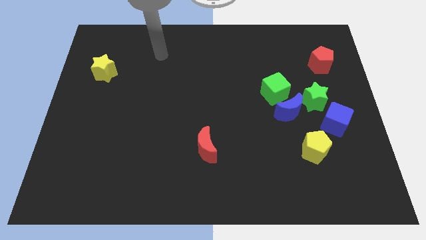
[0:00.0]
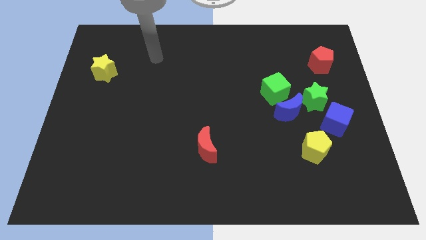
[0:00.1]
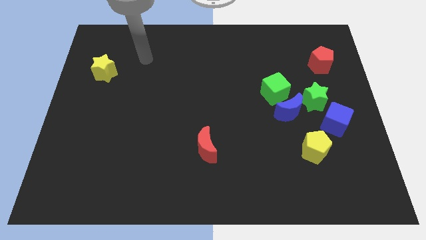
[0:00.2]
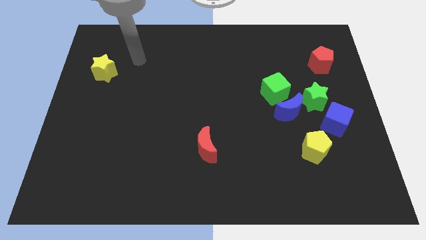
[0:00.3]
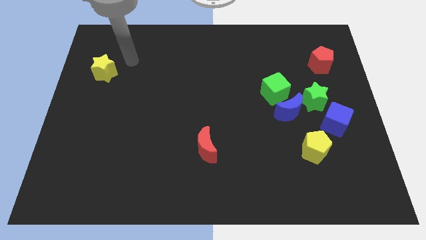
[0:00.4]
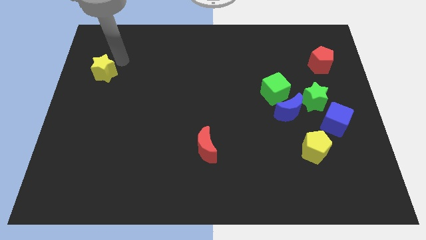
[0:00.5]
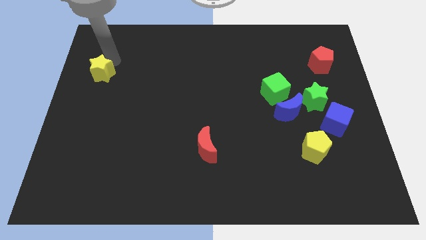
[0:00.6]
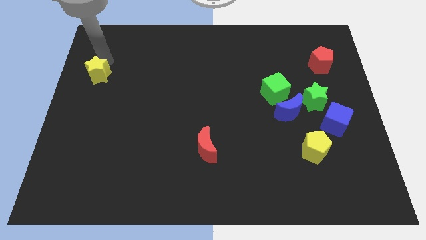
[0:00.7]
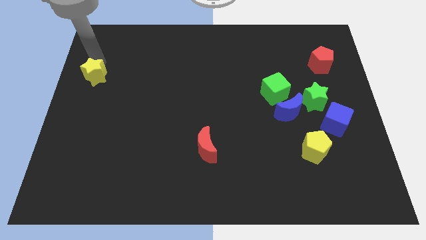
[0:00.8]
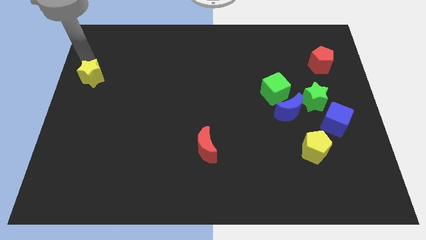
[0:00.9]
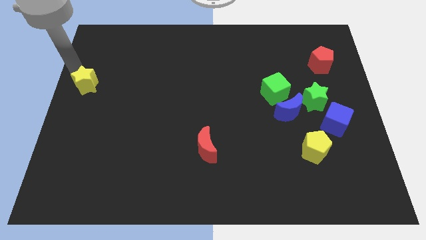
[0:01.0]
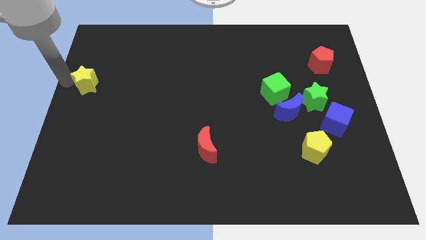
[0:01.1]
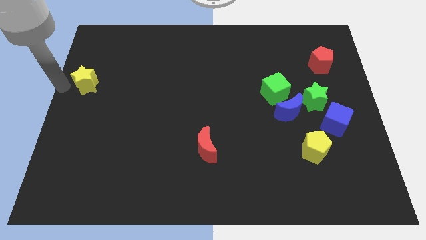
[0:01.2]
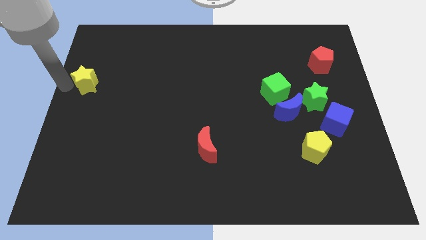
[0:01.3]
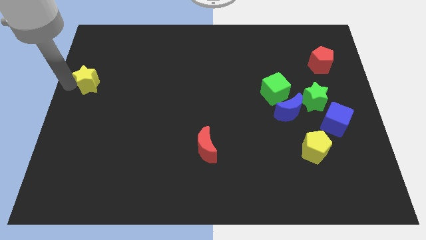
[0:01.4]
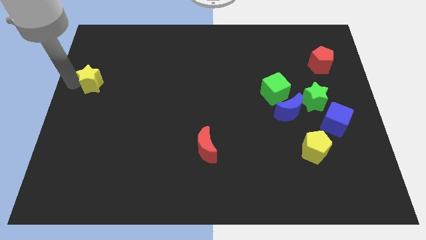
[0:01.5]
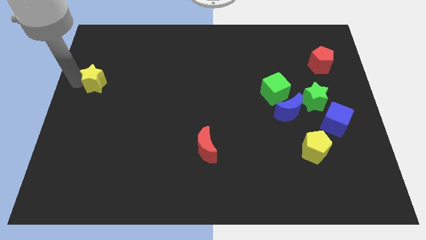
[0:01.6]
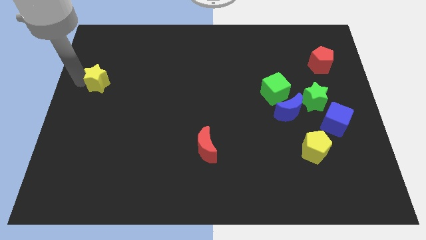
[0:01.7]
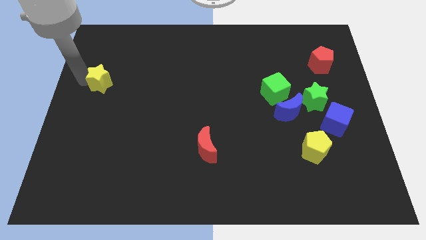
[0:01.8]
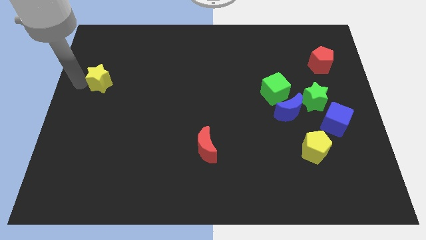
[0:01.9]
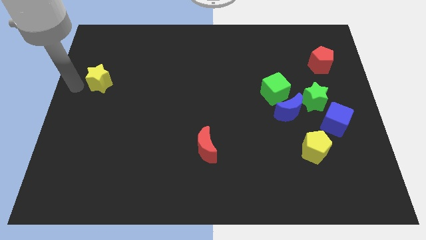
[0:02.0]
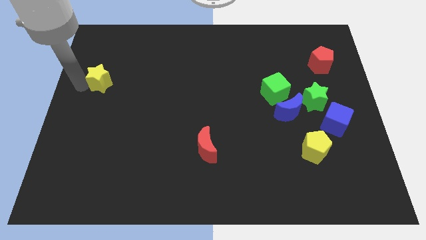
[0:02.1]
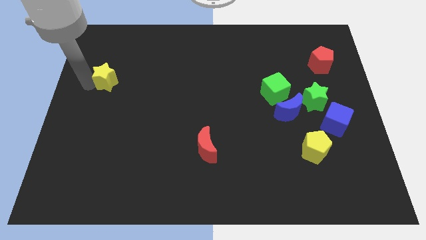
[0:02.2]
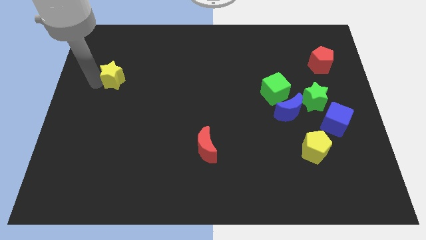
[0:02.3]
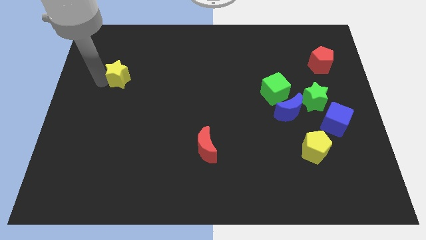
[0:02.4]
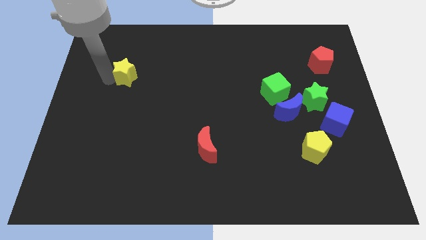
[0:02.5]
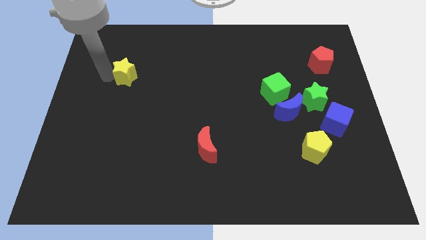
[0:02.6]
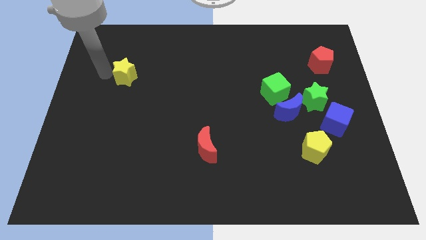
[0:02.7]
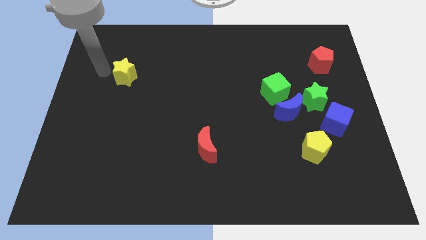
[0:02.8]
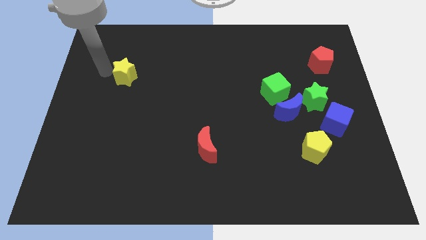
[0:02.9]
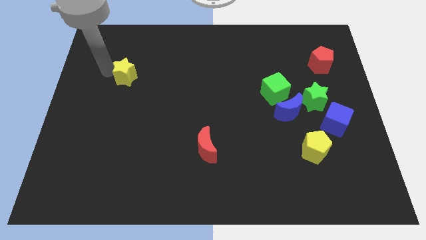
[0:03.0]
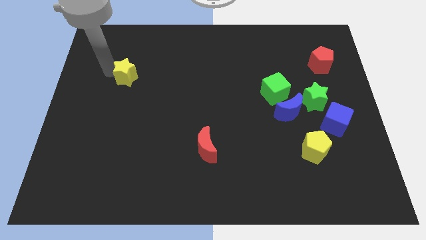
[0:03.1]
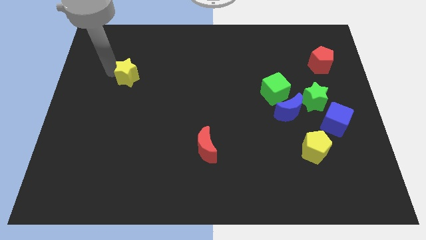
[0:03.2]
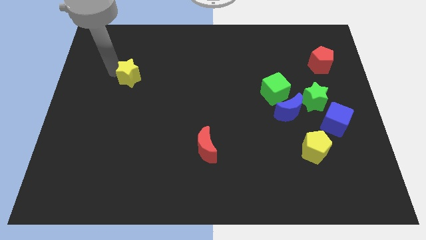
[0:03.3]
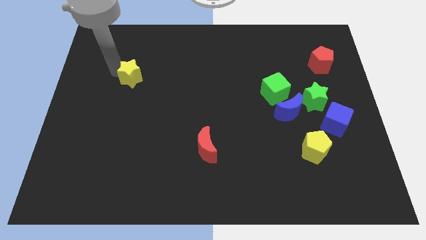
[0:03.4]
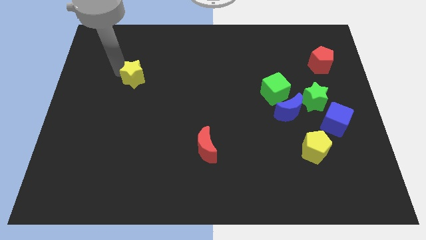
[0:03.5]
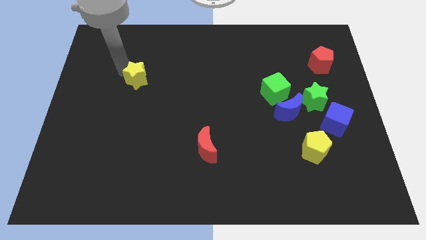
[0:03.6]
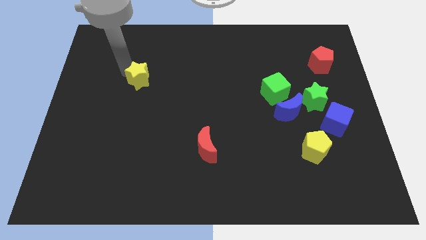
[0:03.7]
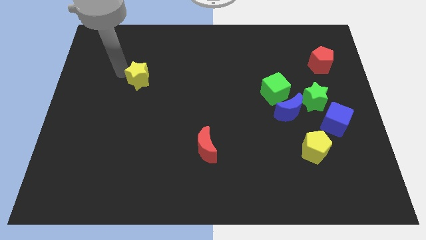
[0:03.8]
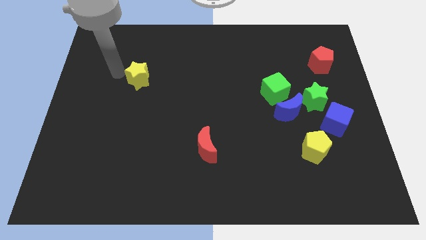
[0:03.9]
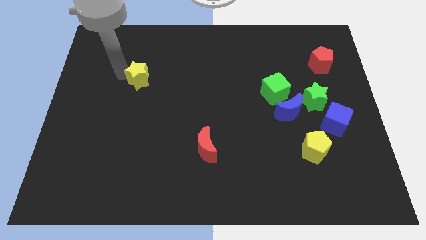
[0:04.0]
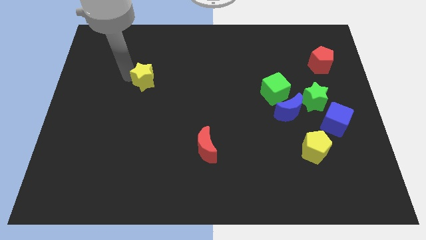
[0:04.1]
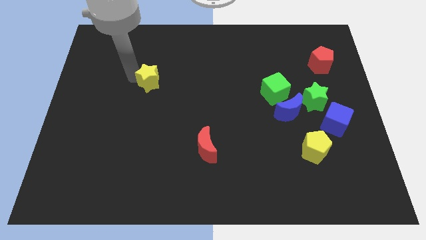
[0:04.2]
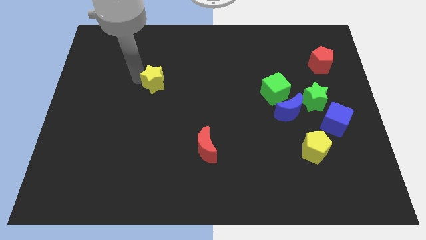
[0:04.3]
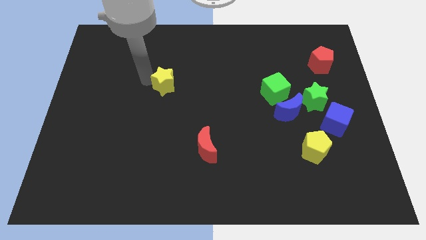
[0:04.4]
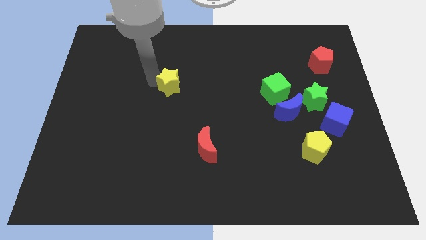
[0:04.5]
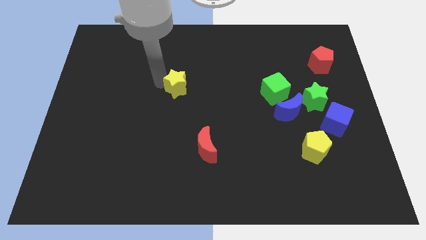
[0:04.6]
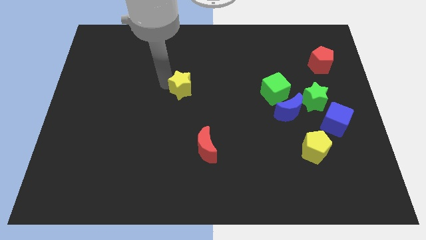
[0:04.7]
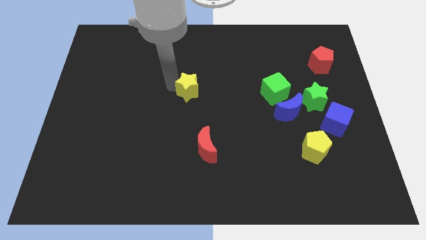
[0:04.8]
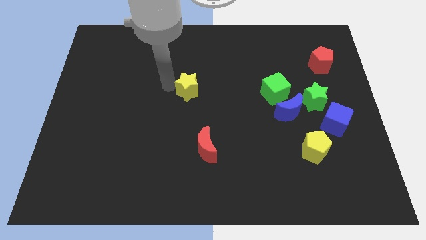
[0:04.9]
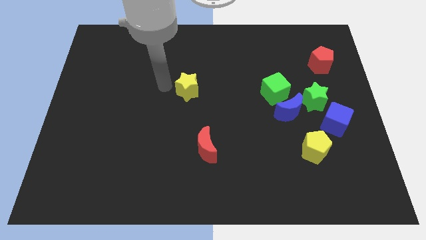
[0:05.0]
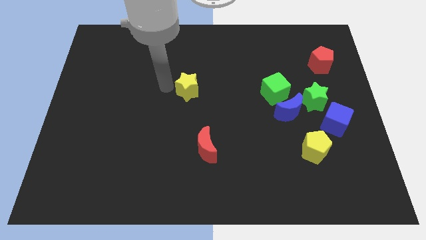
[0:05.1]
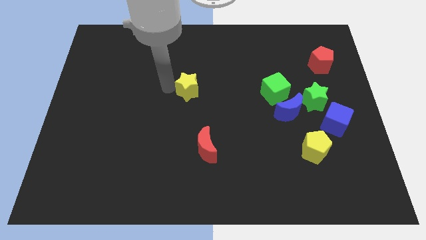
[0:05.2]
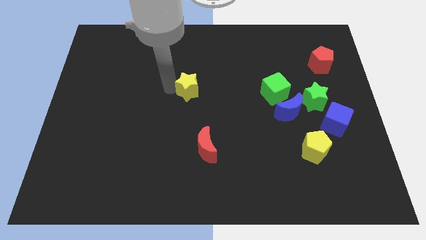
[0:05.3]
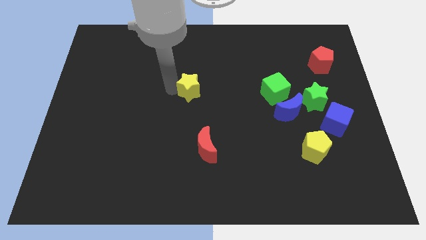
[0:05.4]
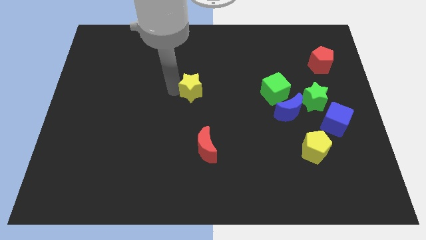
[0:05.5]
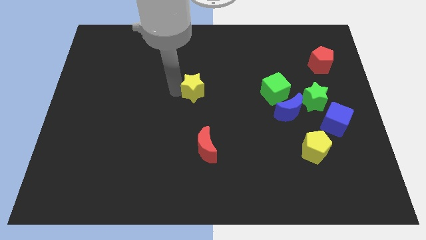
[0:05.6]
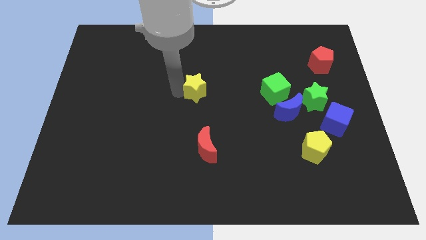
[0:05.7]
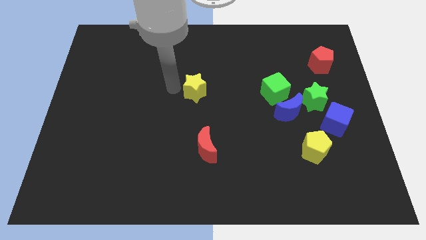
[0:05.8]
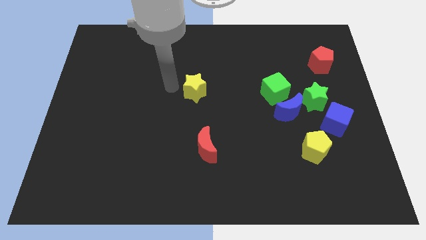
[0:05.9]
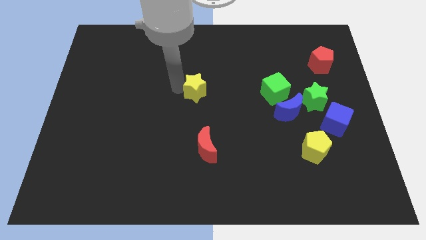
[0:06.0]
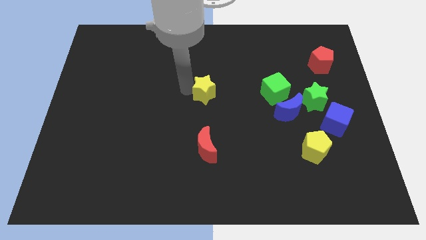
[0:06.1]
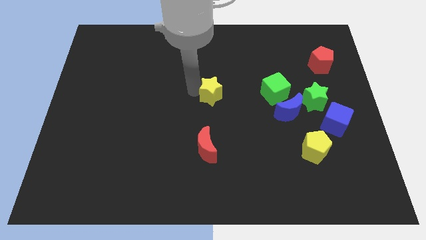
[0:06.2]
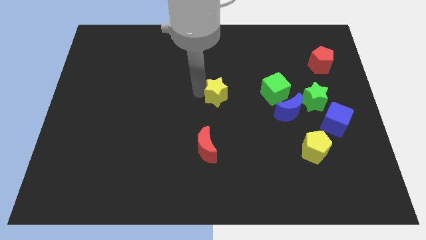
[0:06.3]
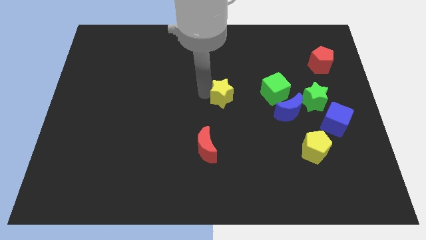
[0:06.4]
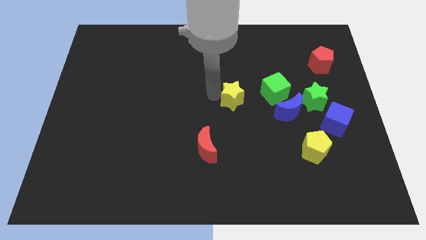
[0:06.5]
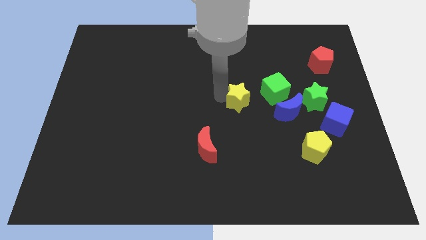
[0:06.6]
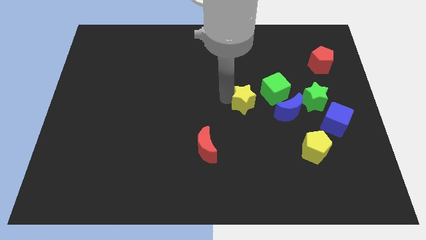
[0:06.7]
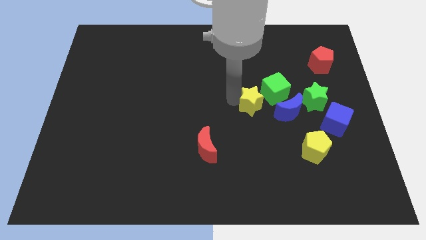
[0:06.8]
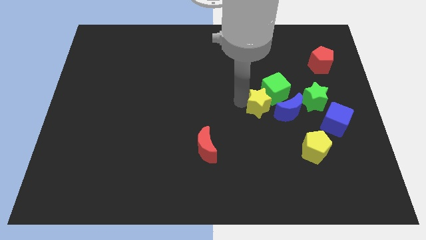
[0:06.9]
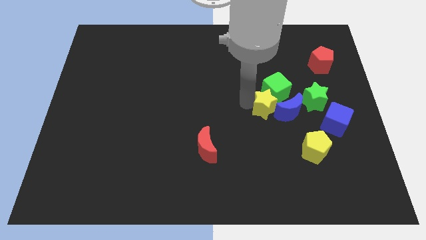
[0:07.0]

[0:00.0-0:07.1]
move the yellow star to the blue moon

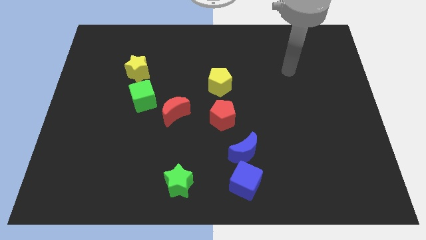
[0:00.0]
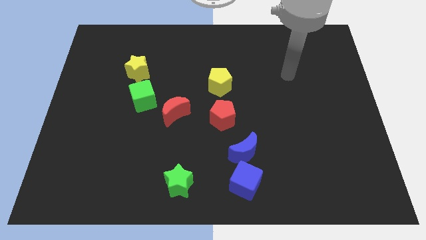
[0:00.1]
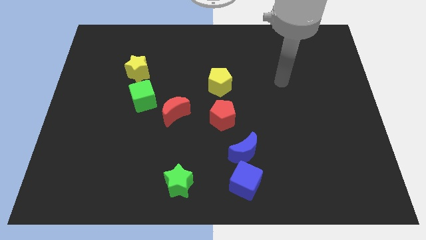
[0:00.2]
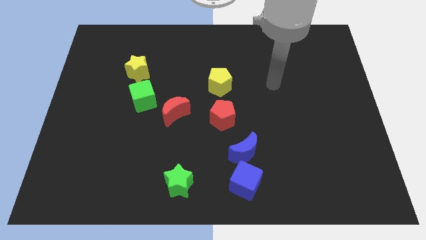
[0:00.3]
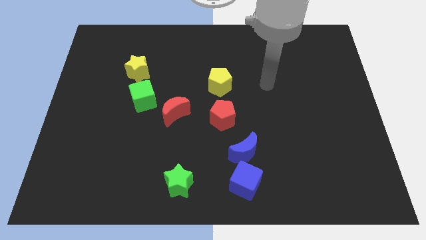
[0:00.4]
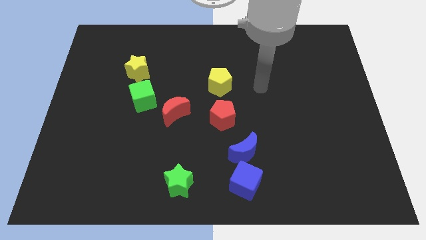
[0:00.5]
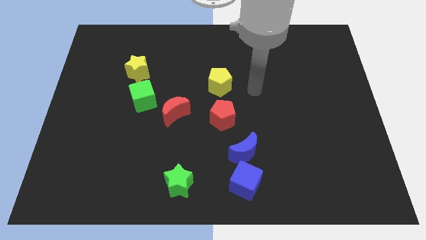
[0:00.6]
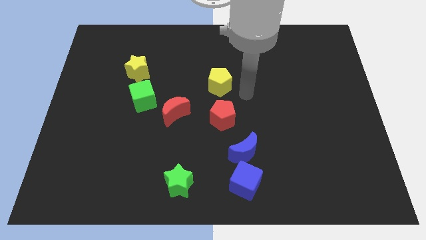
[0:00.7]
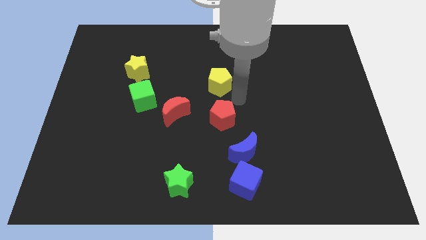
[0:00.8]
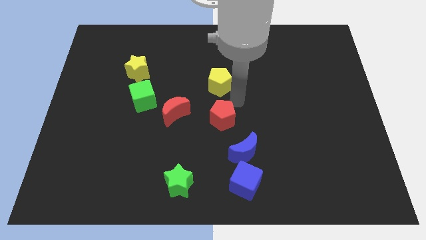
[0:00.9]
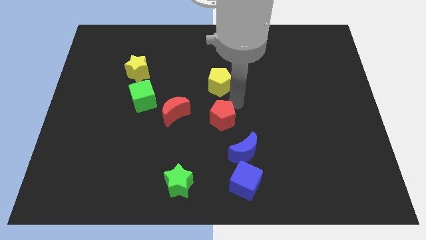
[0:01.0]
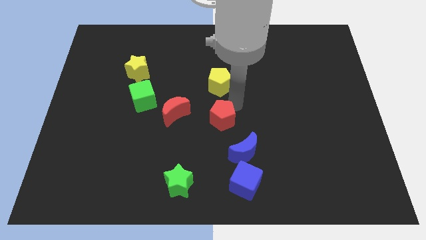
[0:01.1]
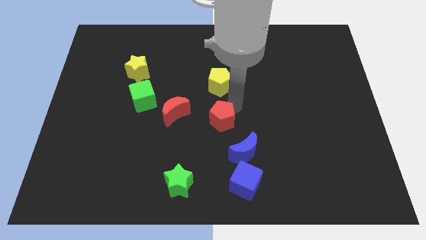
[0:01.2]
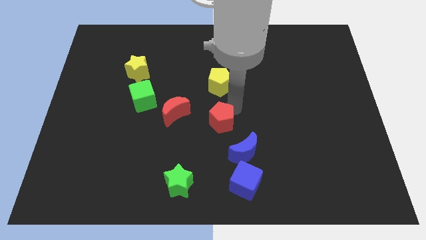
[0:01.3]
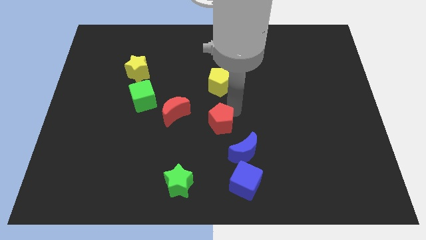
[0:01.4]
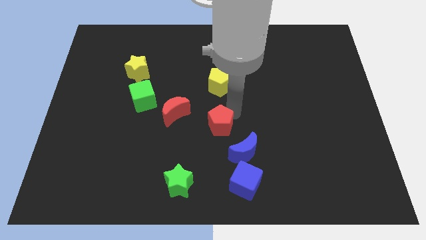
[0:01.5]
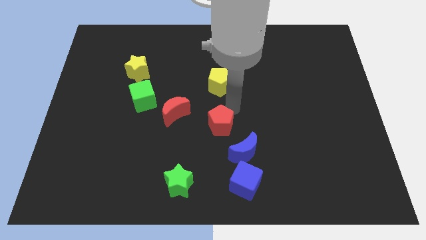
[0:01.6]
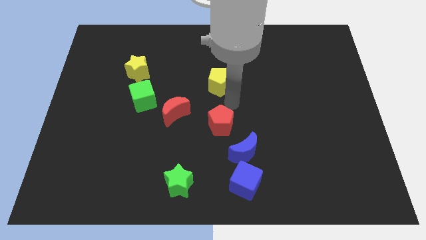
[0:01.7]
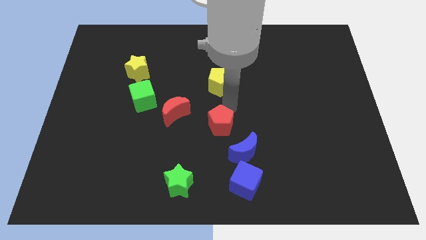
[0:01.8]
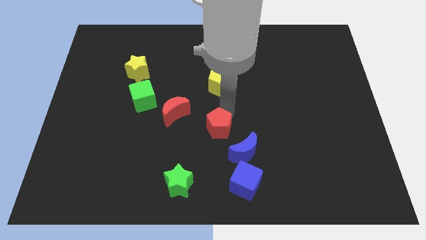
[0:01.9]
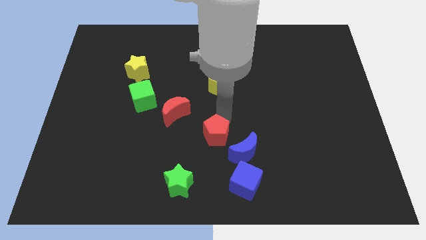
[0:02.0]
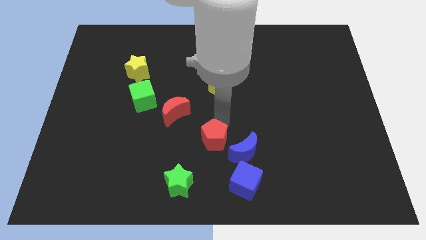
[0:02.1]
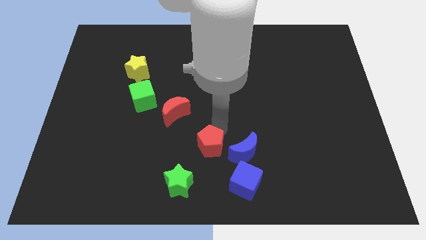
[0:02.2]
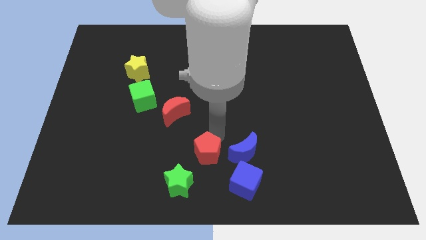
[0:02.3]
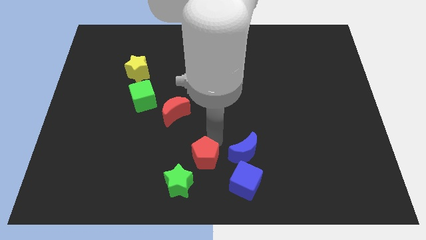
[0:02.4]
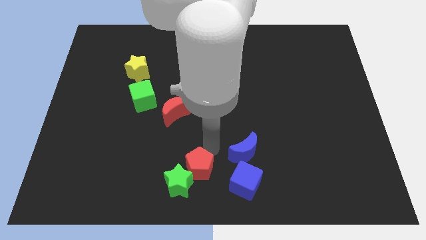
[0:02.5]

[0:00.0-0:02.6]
put the red pentagon next to the green star
